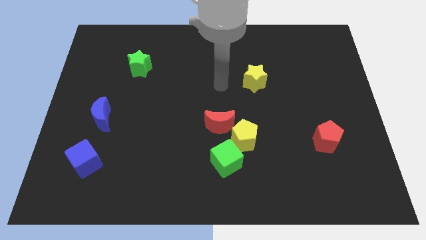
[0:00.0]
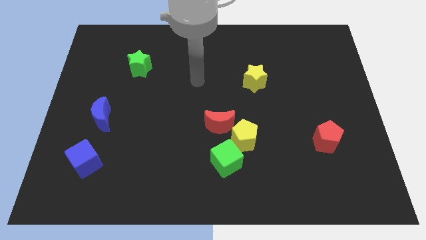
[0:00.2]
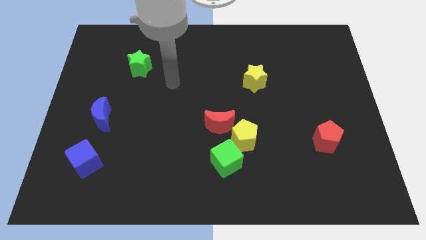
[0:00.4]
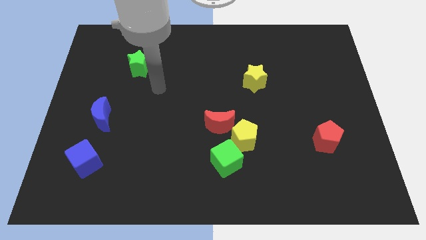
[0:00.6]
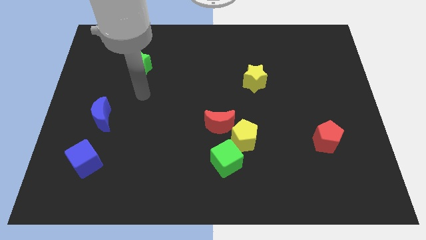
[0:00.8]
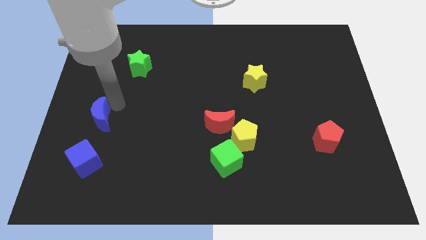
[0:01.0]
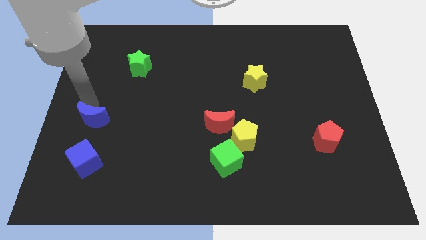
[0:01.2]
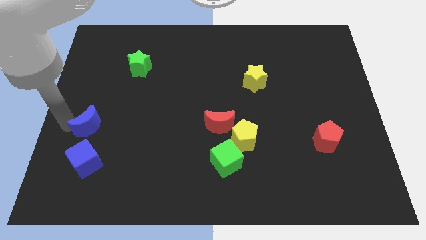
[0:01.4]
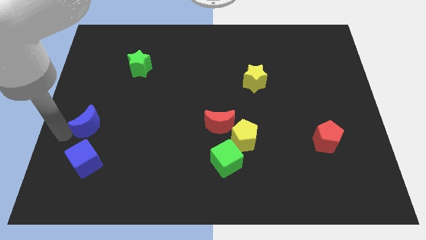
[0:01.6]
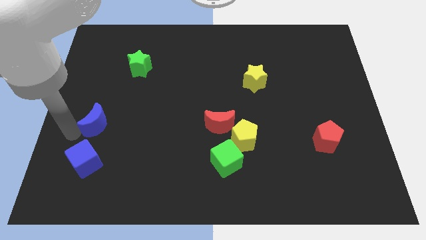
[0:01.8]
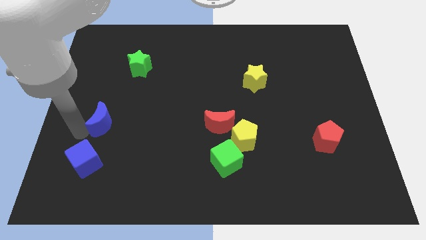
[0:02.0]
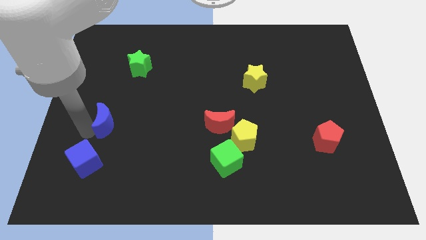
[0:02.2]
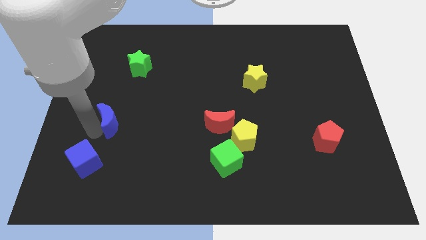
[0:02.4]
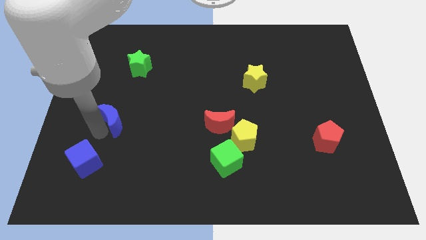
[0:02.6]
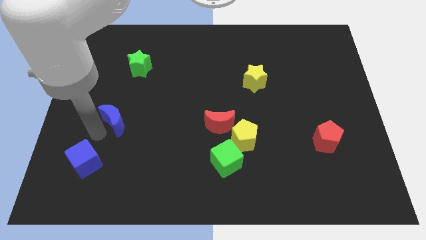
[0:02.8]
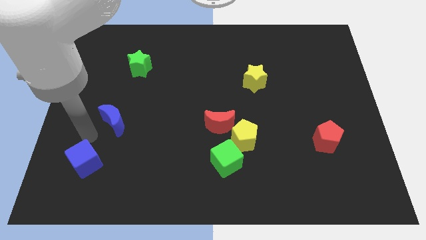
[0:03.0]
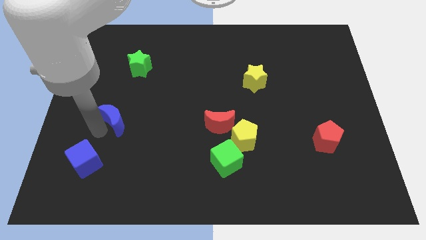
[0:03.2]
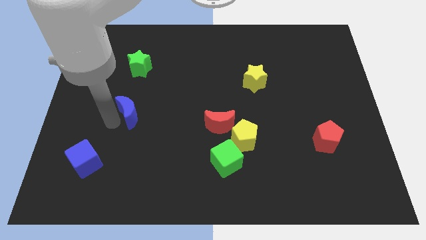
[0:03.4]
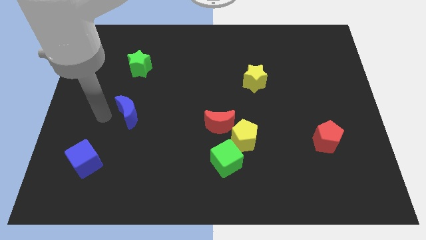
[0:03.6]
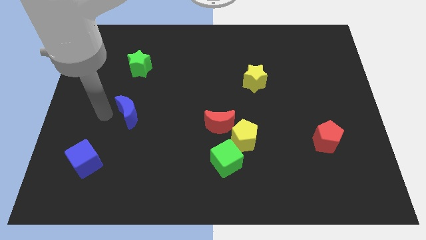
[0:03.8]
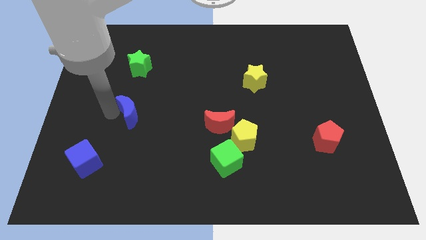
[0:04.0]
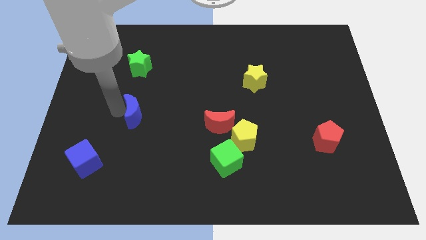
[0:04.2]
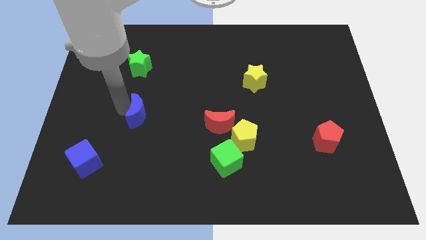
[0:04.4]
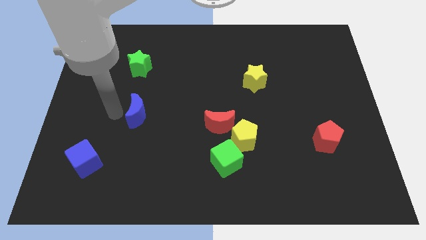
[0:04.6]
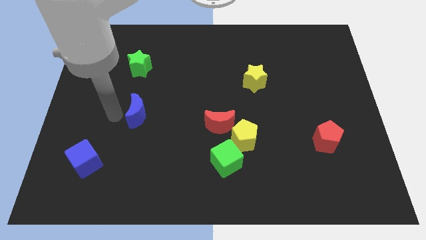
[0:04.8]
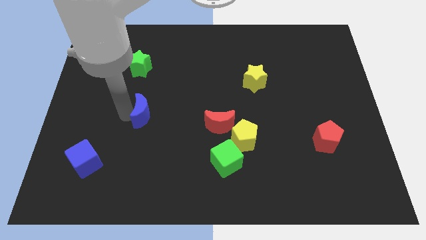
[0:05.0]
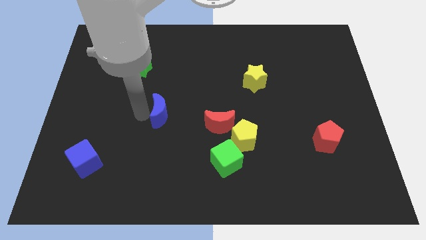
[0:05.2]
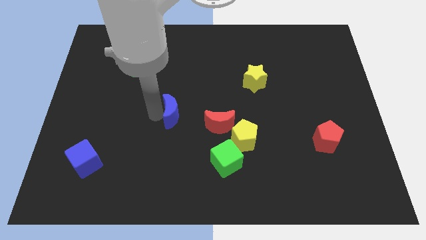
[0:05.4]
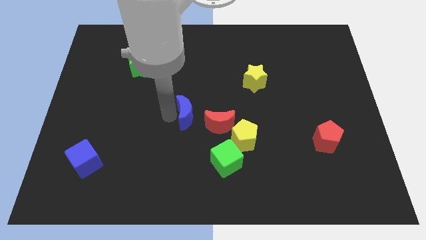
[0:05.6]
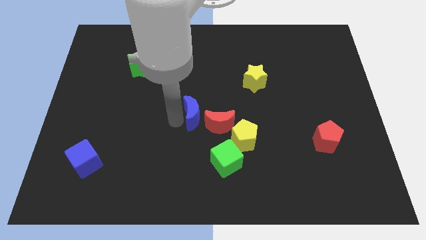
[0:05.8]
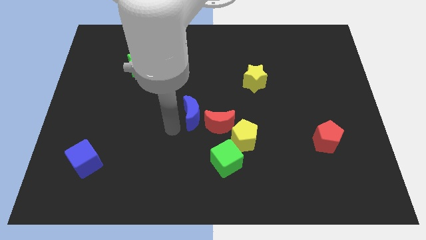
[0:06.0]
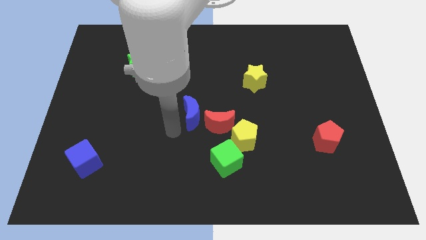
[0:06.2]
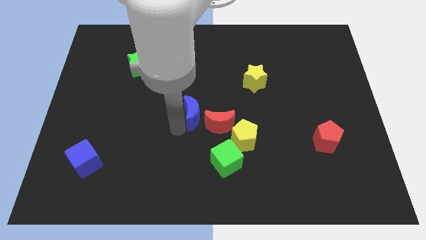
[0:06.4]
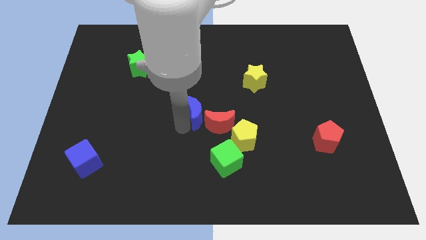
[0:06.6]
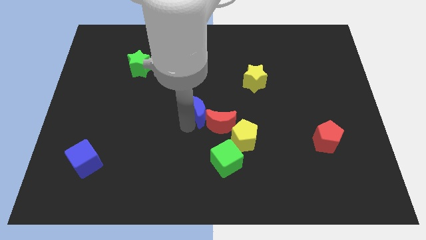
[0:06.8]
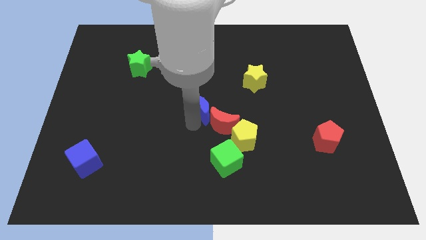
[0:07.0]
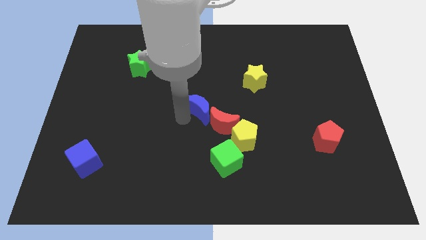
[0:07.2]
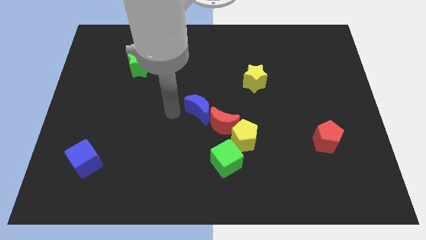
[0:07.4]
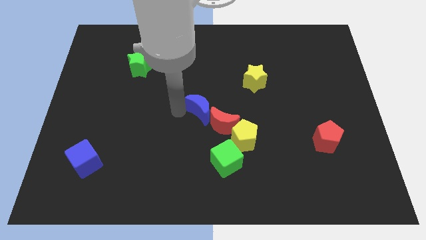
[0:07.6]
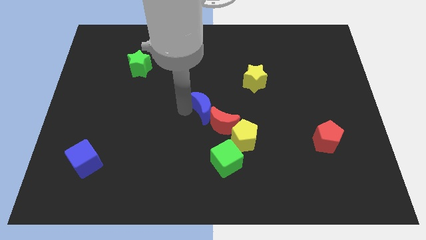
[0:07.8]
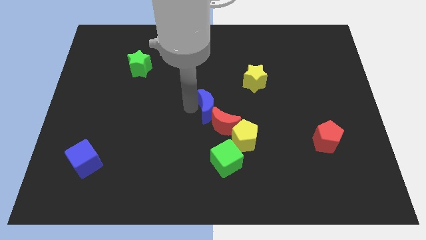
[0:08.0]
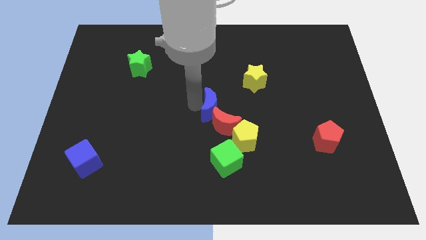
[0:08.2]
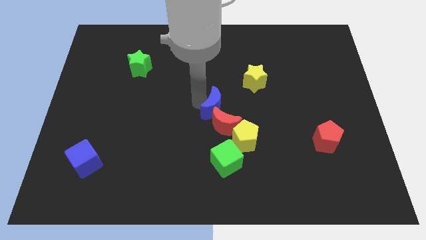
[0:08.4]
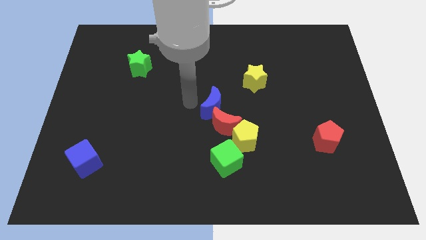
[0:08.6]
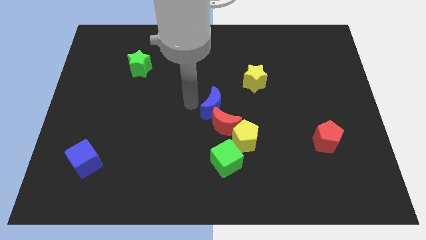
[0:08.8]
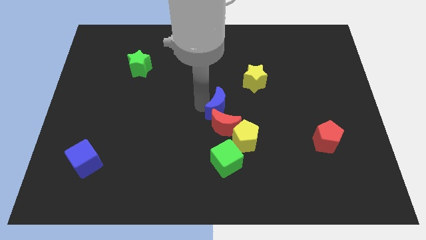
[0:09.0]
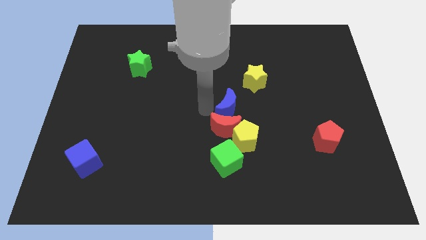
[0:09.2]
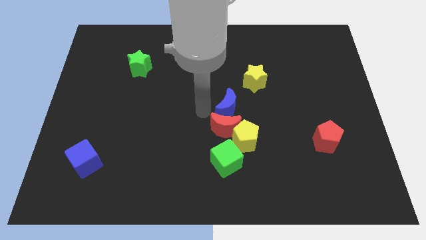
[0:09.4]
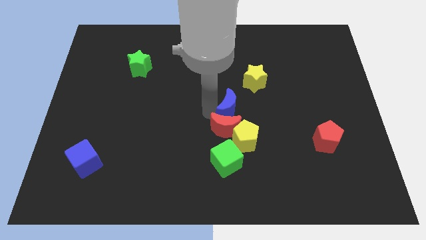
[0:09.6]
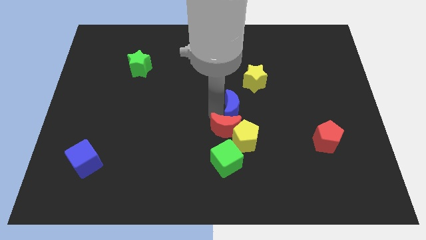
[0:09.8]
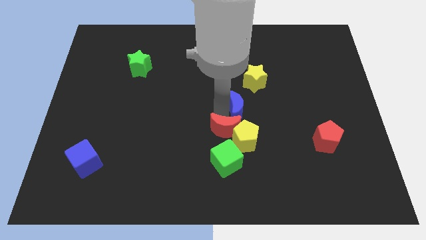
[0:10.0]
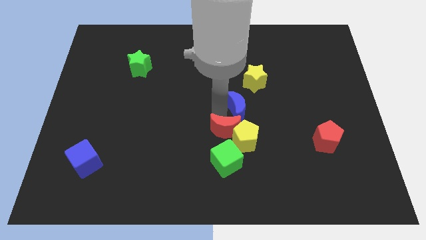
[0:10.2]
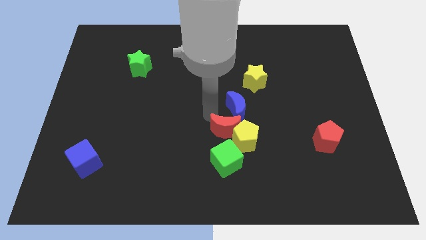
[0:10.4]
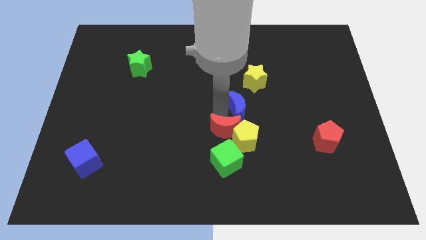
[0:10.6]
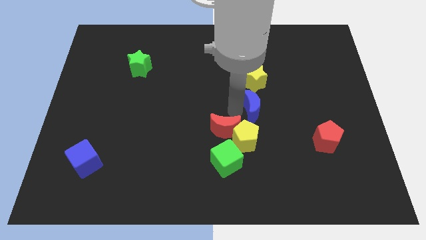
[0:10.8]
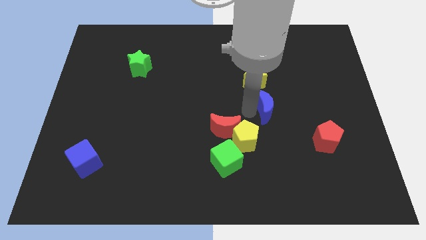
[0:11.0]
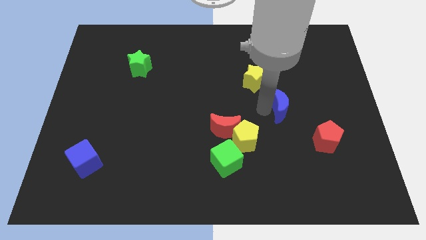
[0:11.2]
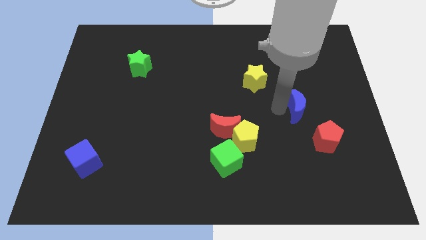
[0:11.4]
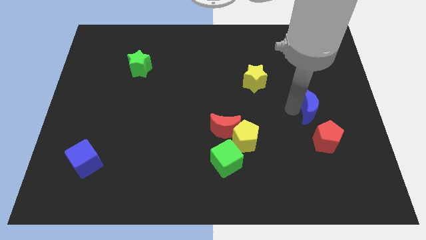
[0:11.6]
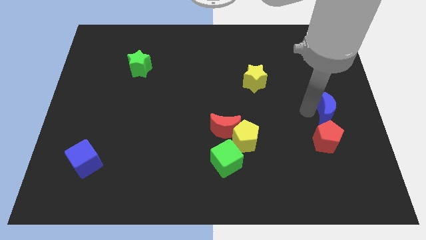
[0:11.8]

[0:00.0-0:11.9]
push the blue moon to the right side of the board

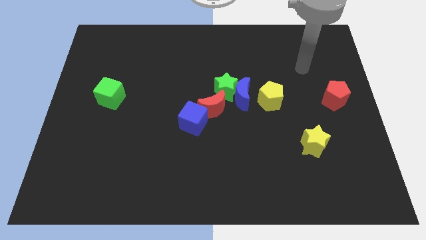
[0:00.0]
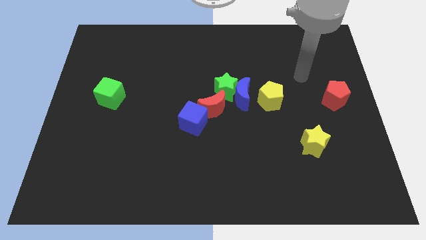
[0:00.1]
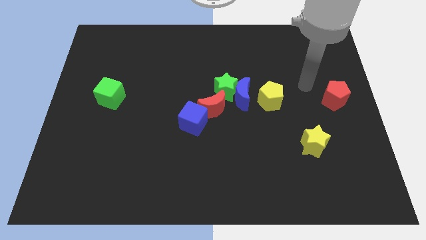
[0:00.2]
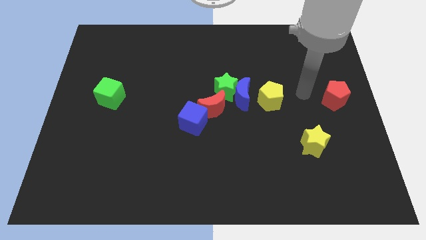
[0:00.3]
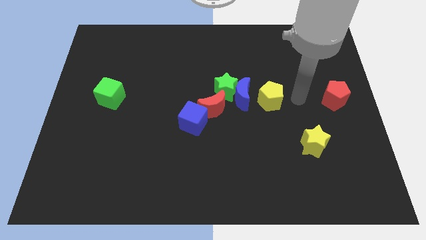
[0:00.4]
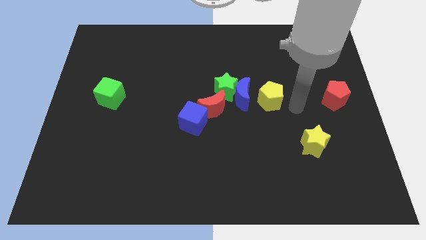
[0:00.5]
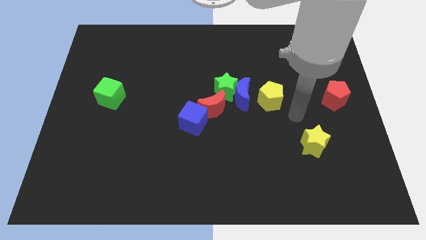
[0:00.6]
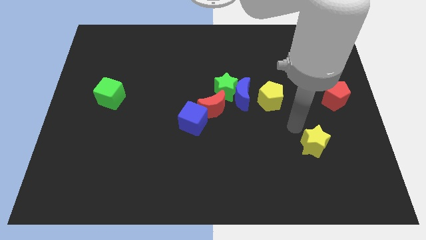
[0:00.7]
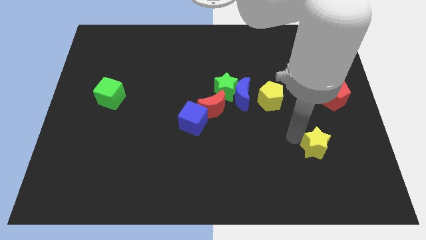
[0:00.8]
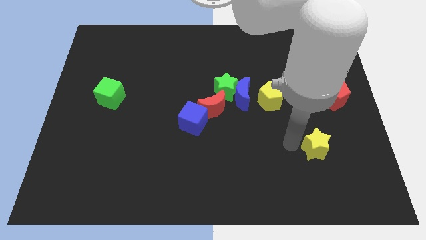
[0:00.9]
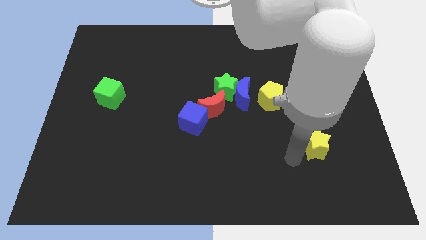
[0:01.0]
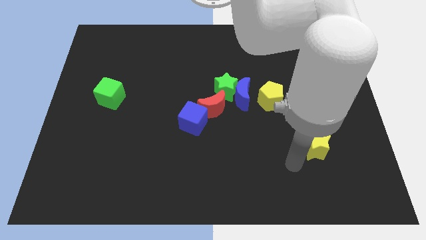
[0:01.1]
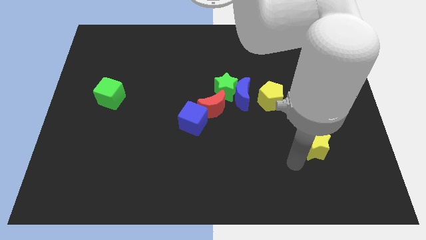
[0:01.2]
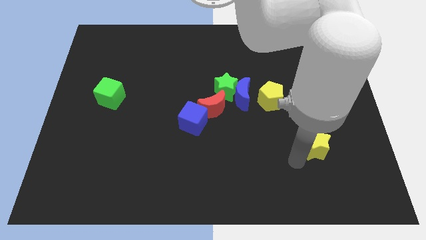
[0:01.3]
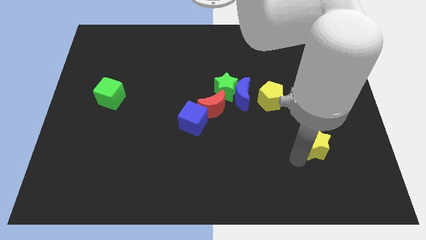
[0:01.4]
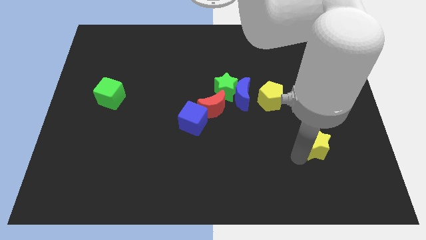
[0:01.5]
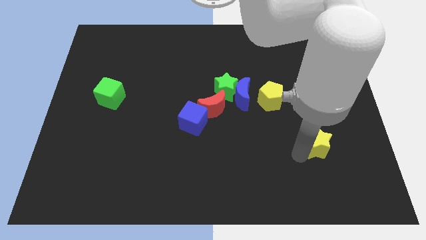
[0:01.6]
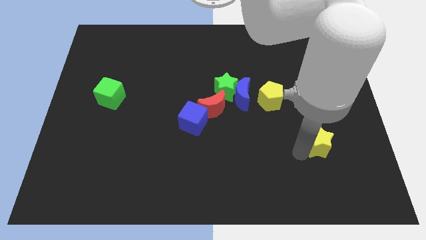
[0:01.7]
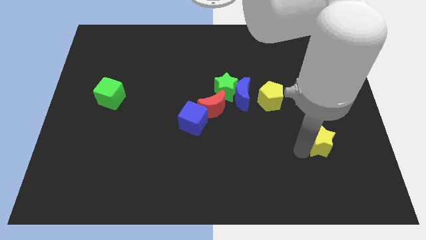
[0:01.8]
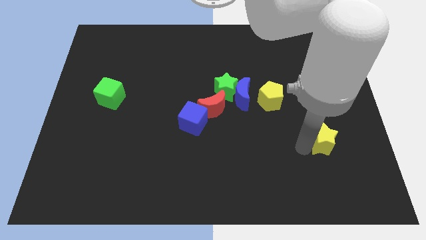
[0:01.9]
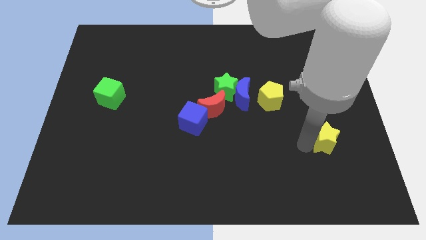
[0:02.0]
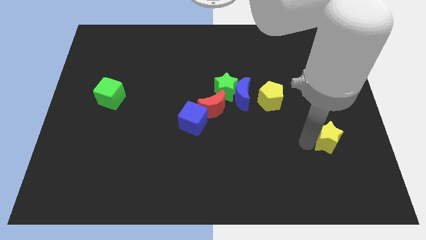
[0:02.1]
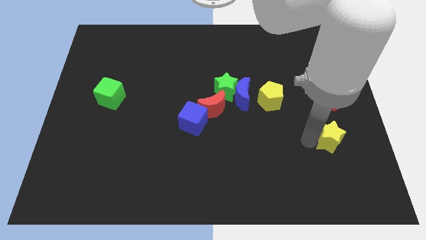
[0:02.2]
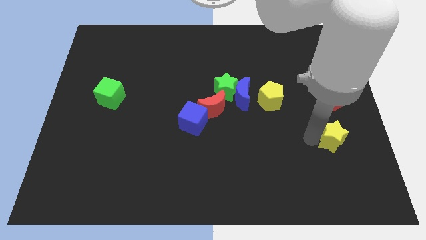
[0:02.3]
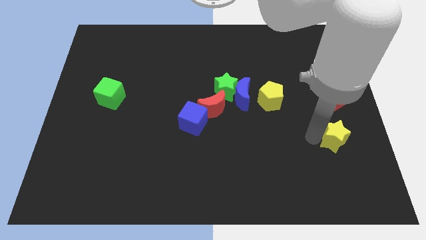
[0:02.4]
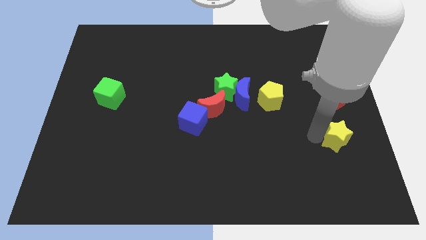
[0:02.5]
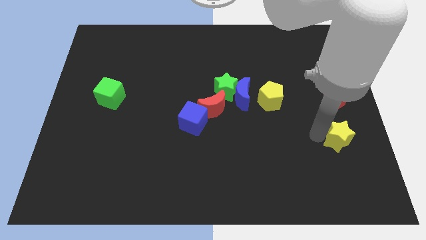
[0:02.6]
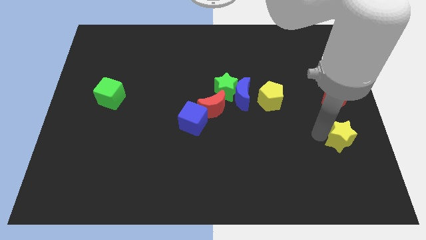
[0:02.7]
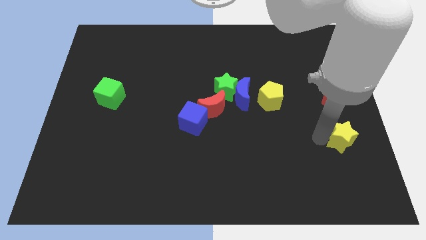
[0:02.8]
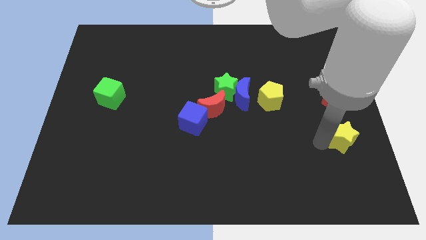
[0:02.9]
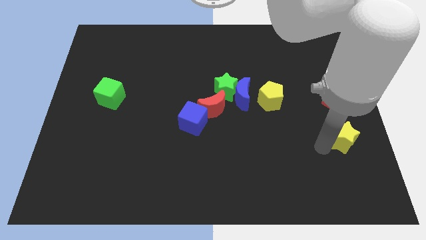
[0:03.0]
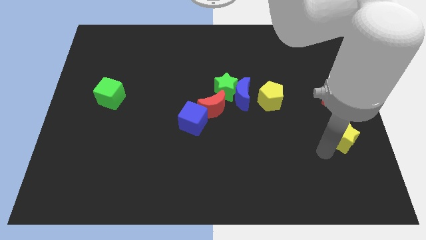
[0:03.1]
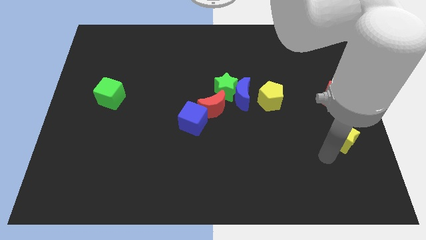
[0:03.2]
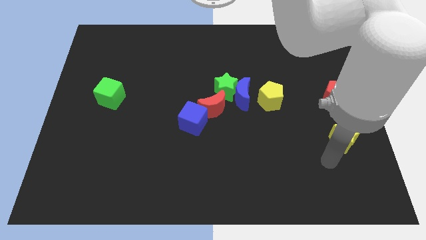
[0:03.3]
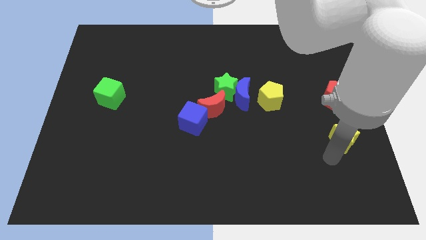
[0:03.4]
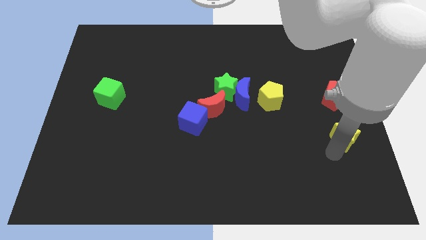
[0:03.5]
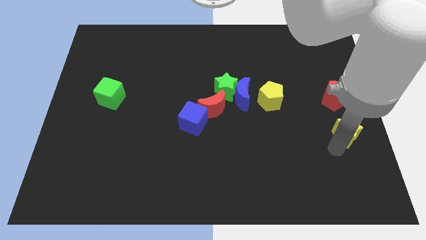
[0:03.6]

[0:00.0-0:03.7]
slide the yellow star to the right side
